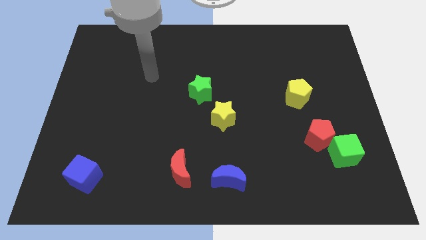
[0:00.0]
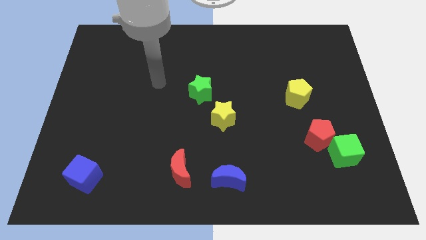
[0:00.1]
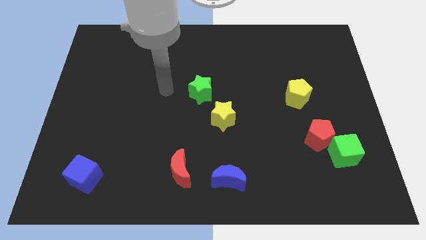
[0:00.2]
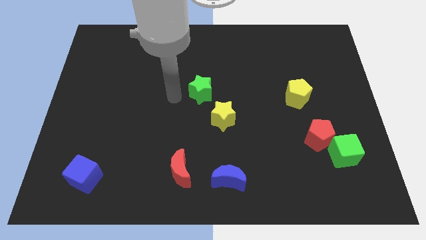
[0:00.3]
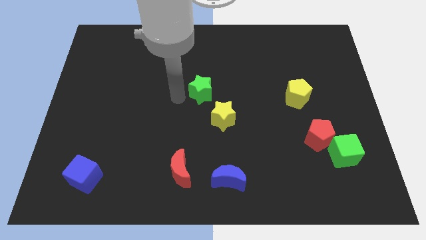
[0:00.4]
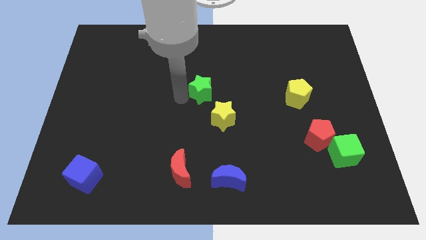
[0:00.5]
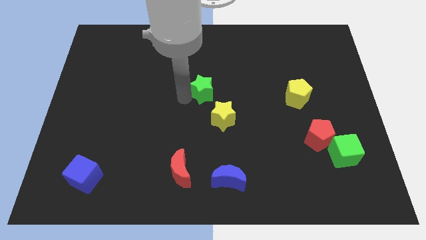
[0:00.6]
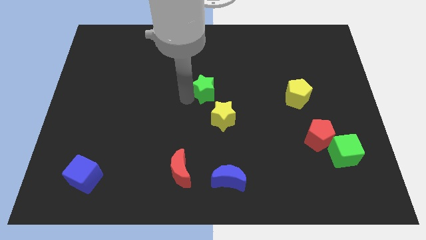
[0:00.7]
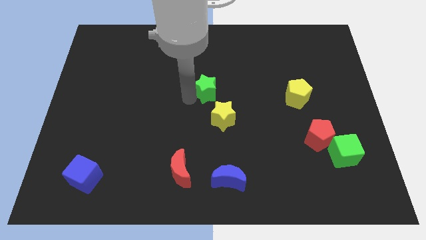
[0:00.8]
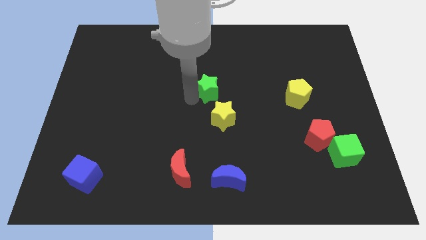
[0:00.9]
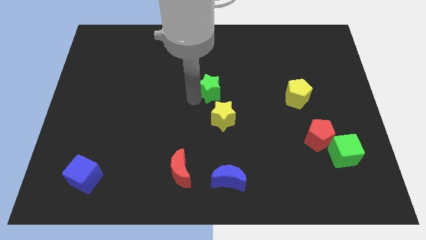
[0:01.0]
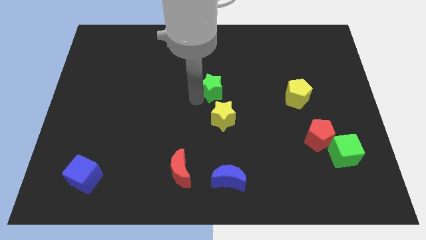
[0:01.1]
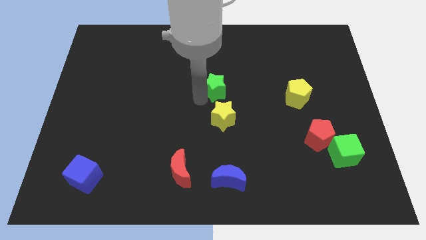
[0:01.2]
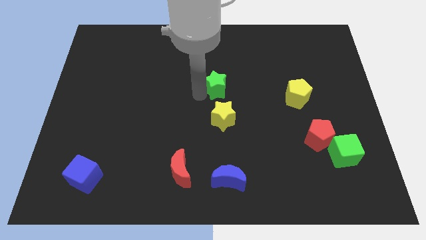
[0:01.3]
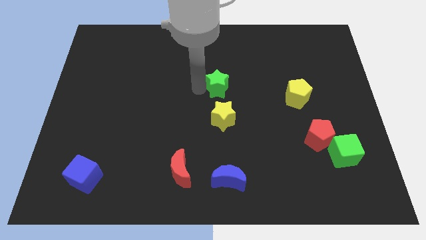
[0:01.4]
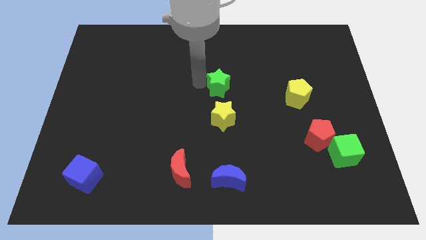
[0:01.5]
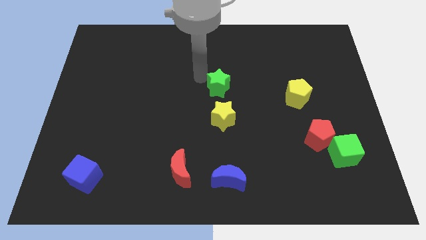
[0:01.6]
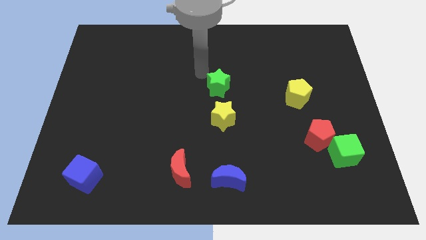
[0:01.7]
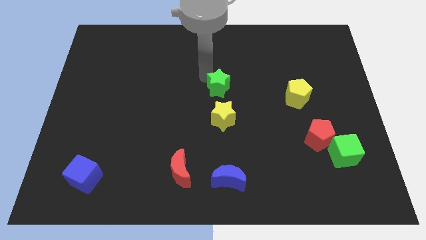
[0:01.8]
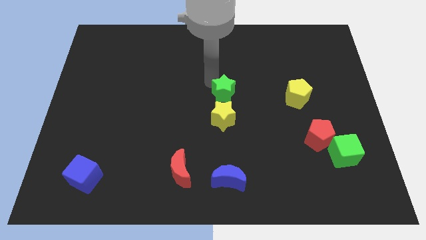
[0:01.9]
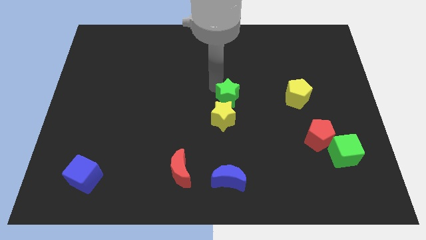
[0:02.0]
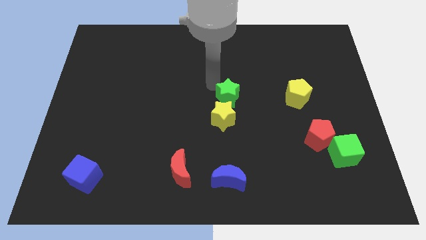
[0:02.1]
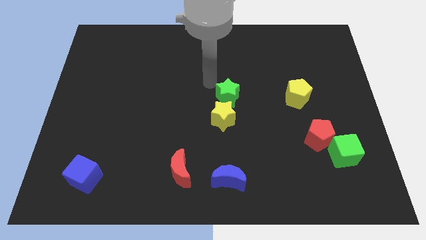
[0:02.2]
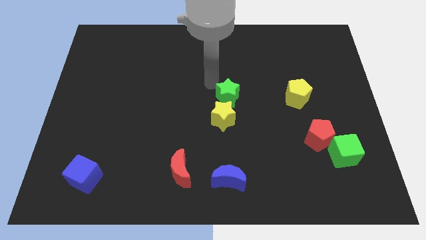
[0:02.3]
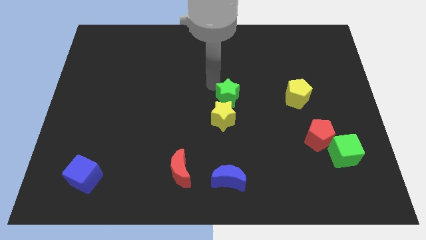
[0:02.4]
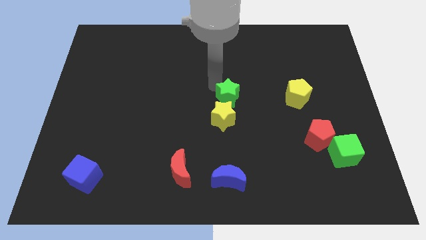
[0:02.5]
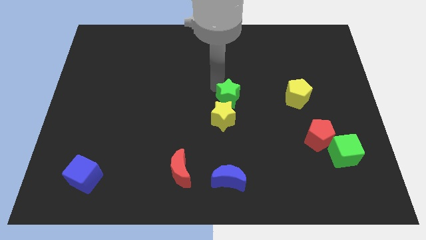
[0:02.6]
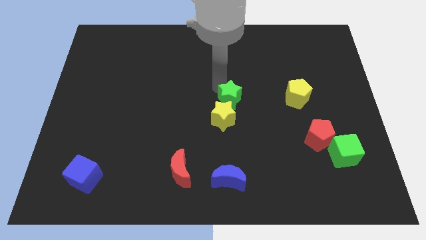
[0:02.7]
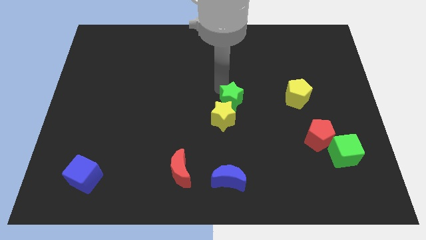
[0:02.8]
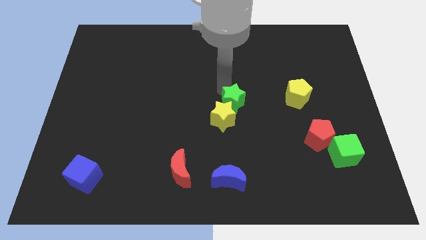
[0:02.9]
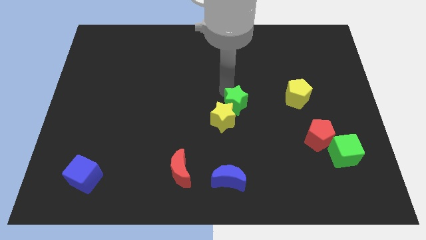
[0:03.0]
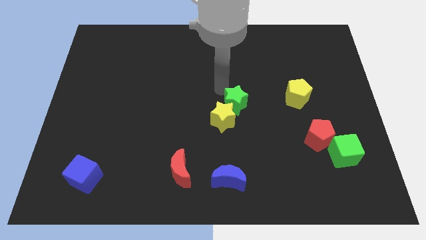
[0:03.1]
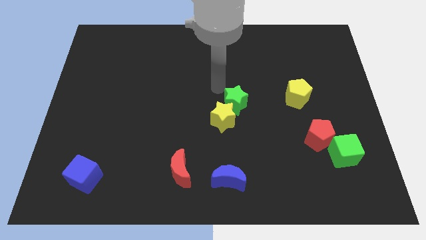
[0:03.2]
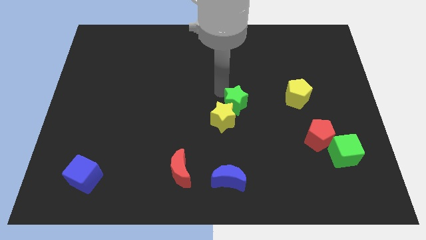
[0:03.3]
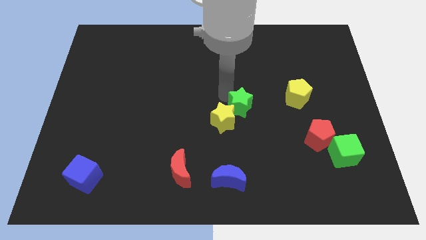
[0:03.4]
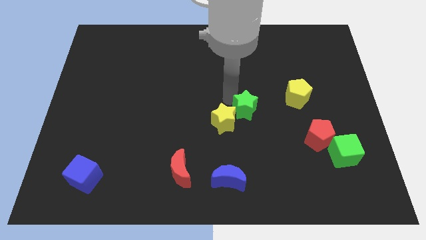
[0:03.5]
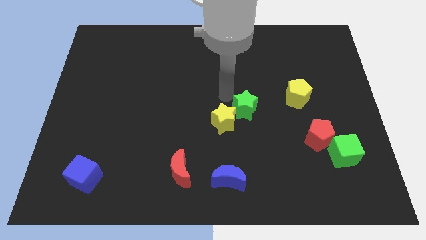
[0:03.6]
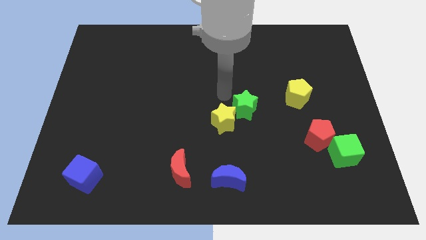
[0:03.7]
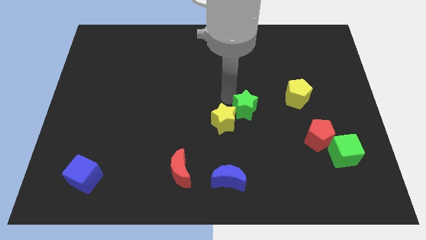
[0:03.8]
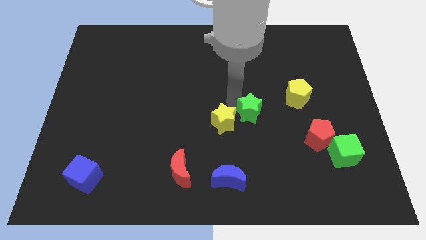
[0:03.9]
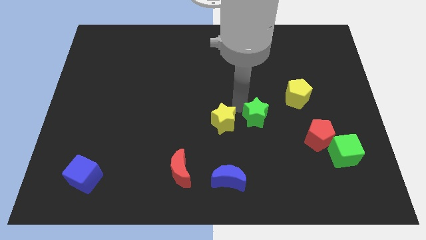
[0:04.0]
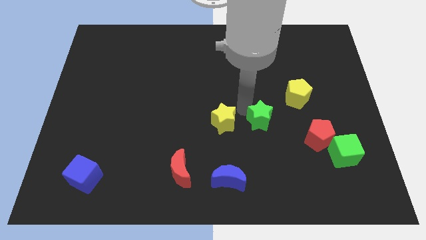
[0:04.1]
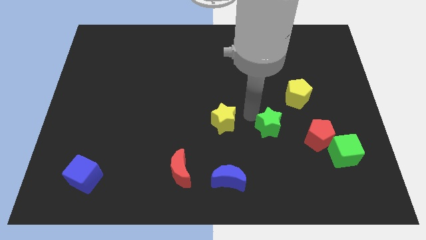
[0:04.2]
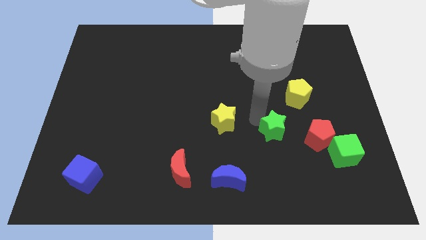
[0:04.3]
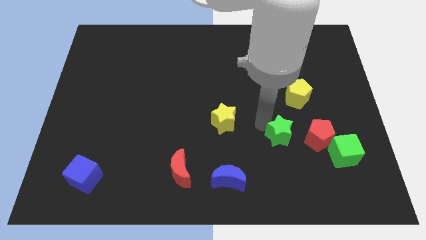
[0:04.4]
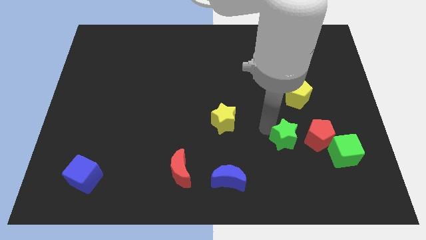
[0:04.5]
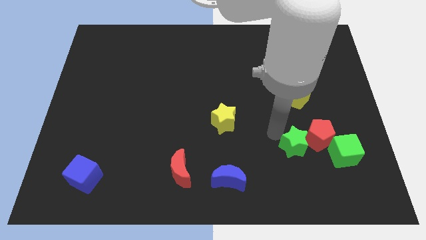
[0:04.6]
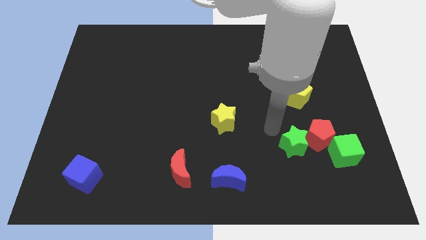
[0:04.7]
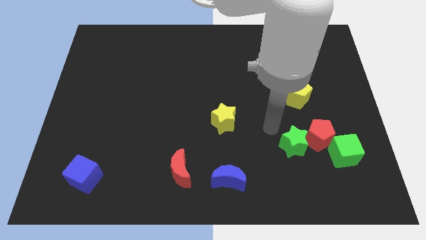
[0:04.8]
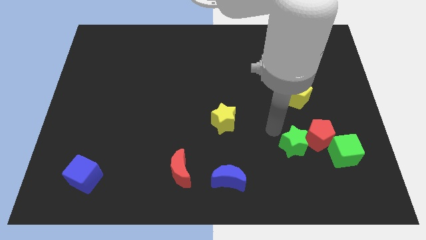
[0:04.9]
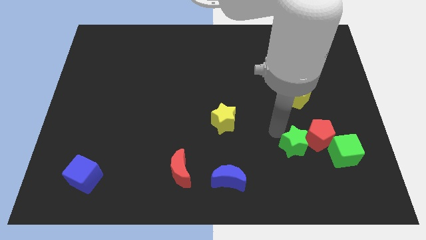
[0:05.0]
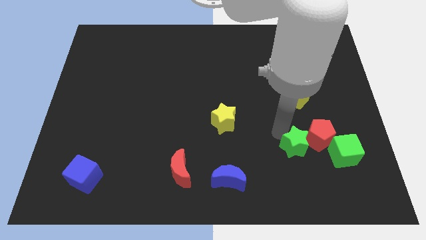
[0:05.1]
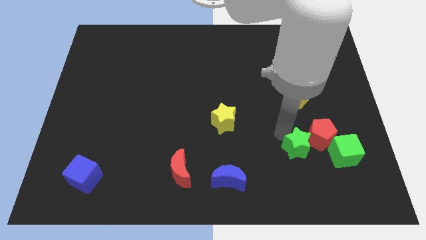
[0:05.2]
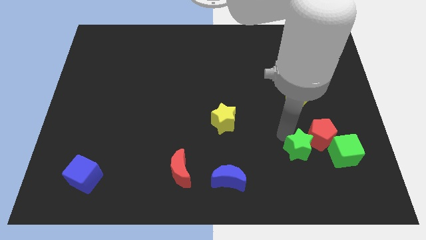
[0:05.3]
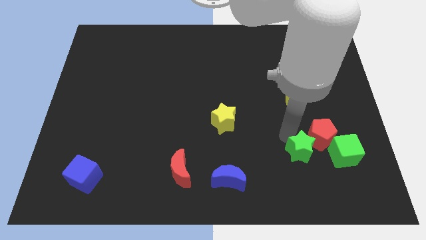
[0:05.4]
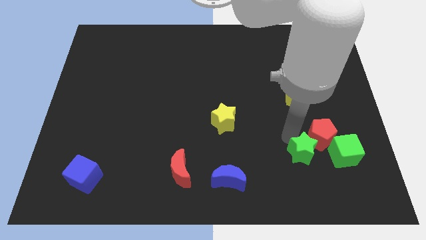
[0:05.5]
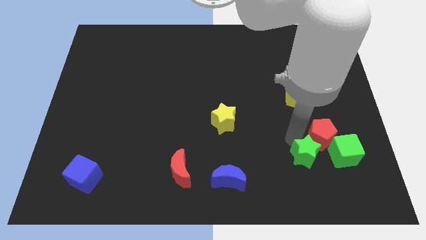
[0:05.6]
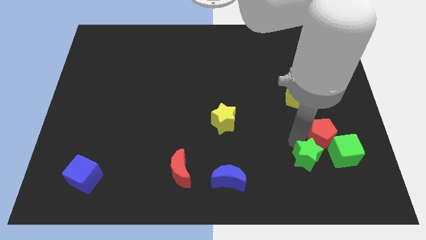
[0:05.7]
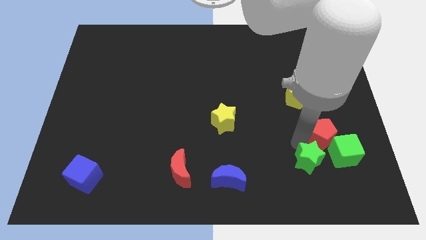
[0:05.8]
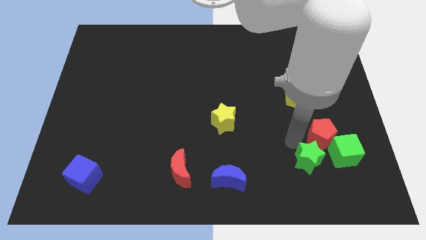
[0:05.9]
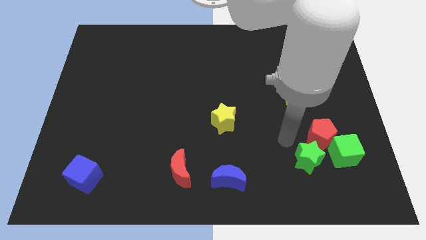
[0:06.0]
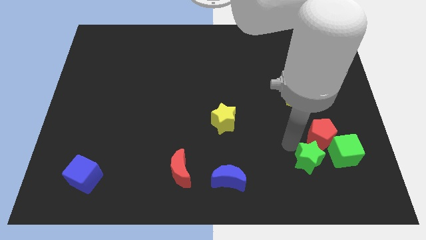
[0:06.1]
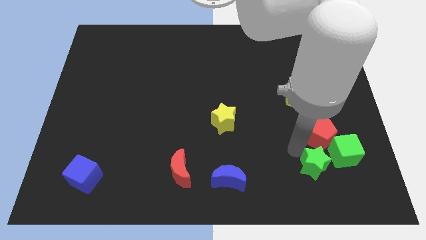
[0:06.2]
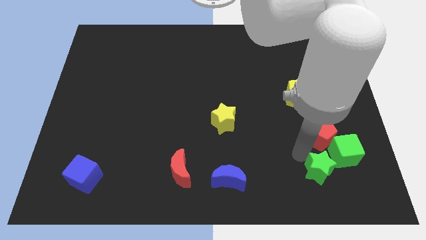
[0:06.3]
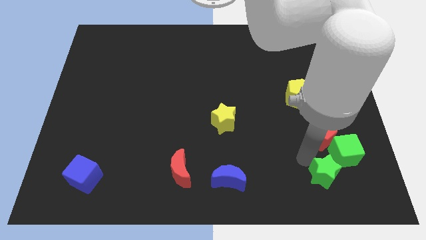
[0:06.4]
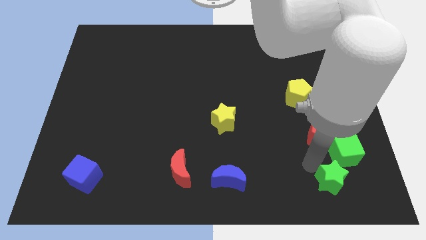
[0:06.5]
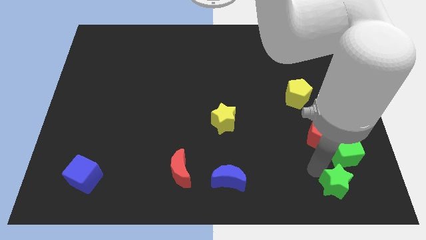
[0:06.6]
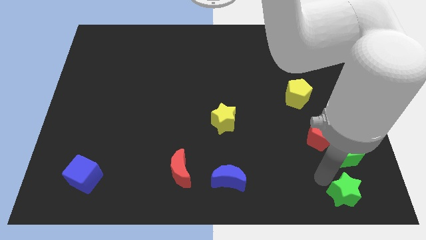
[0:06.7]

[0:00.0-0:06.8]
put the green star to the lower right corner
